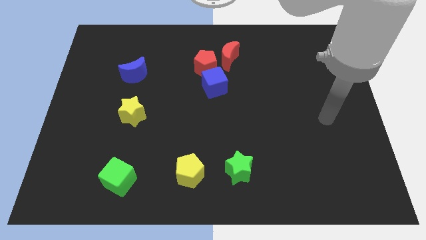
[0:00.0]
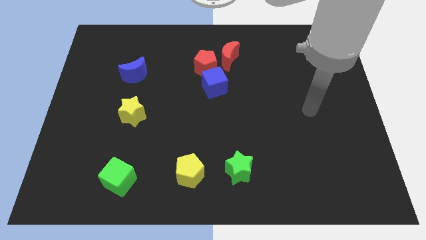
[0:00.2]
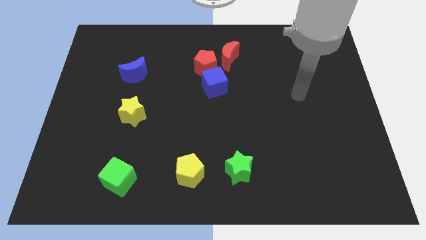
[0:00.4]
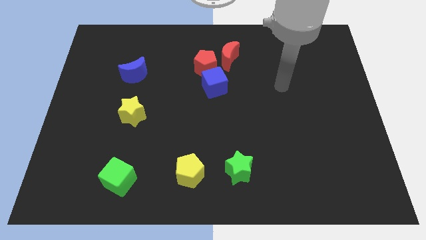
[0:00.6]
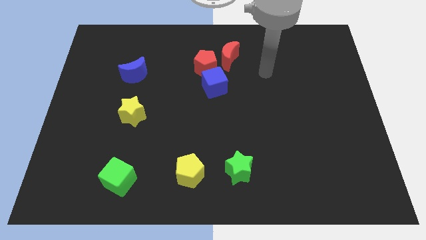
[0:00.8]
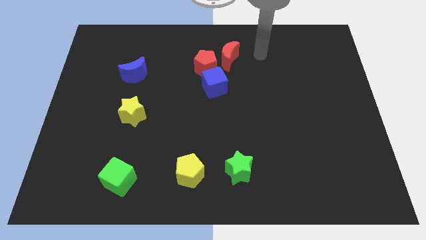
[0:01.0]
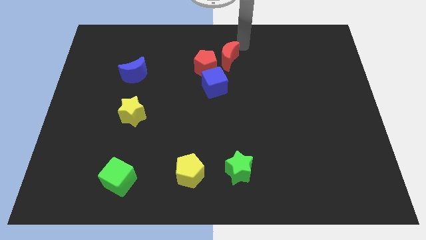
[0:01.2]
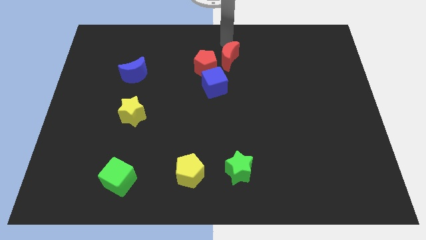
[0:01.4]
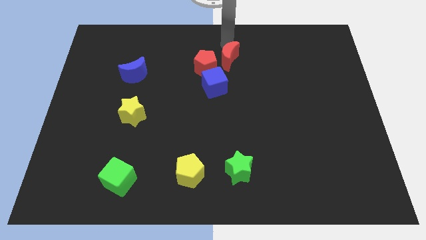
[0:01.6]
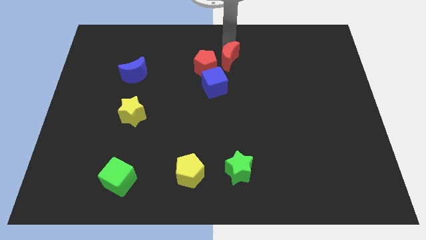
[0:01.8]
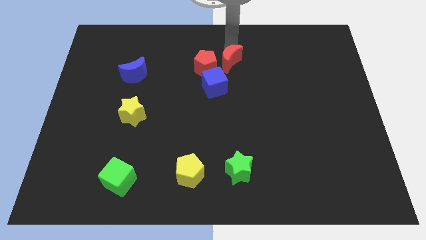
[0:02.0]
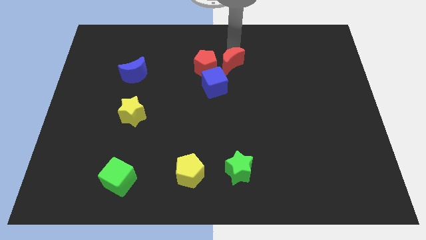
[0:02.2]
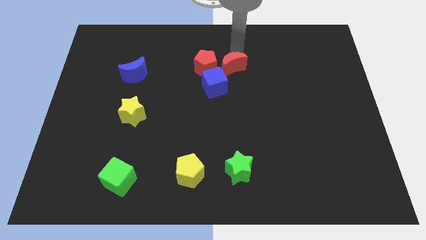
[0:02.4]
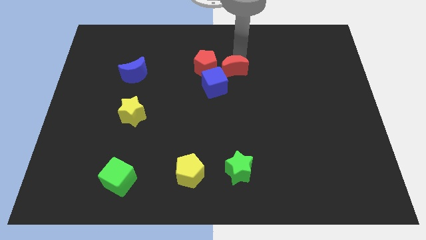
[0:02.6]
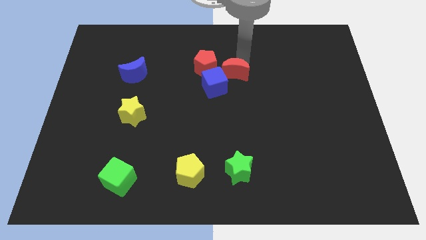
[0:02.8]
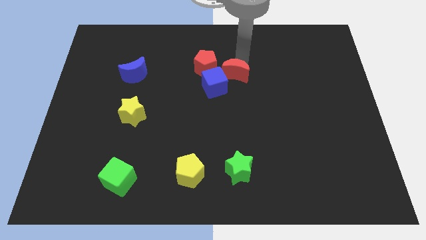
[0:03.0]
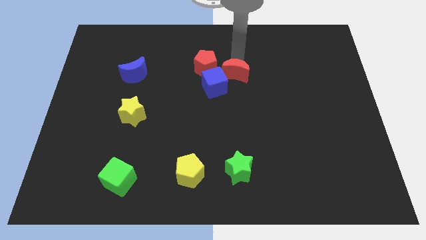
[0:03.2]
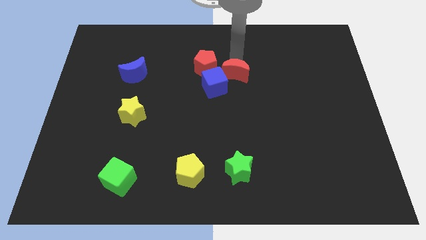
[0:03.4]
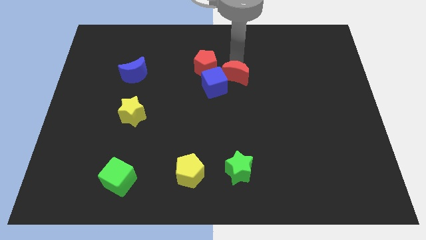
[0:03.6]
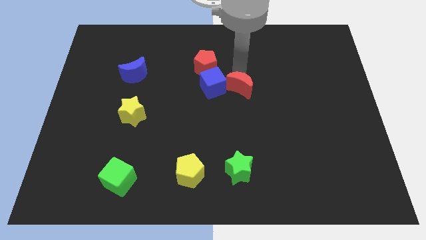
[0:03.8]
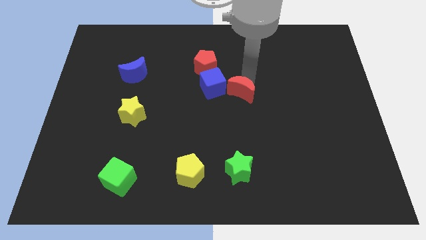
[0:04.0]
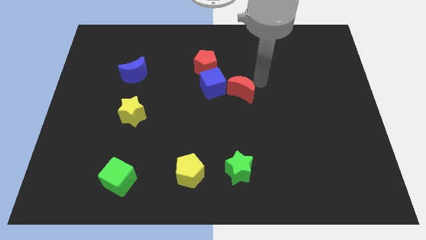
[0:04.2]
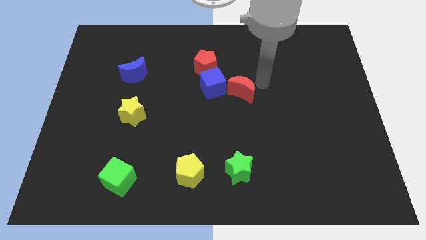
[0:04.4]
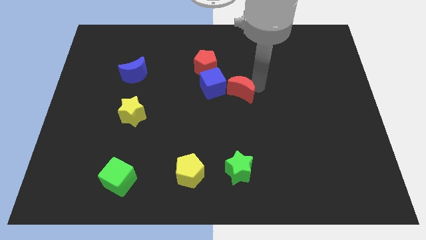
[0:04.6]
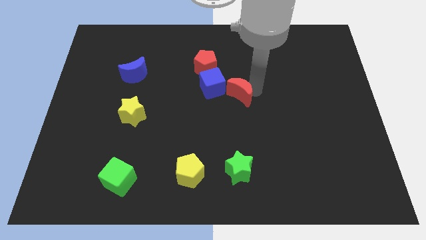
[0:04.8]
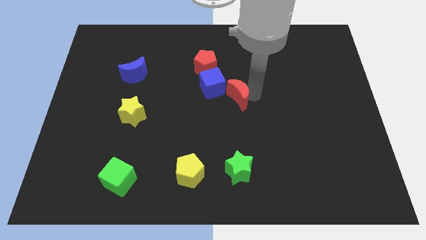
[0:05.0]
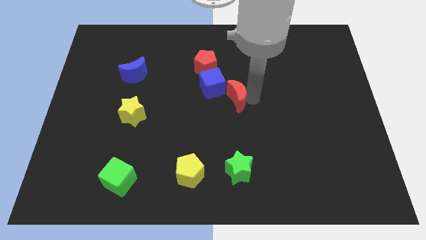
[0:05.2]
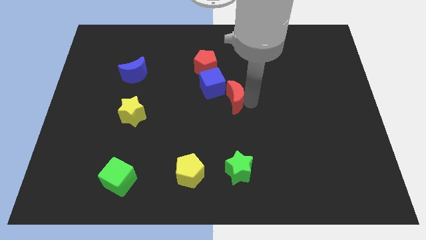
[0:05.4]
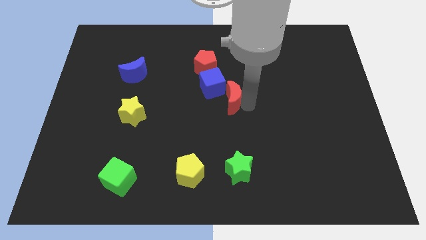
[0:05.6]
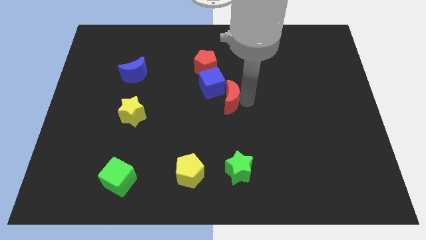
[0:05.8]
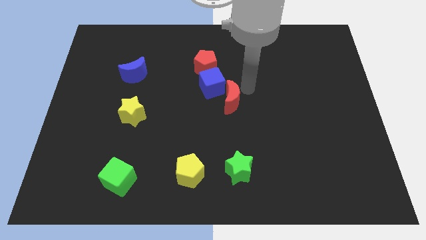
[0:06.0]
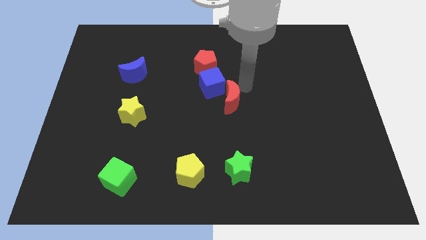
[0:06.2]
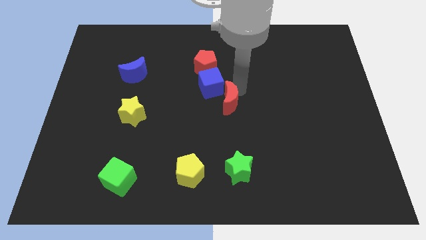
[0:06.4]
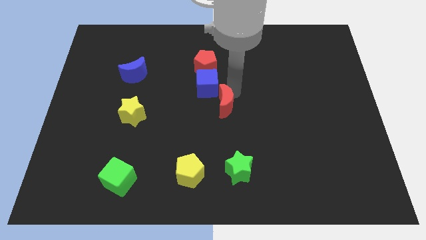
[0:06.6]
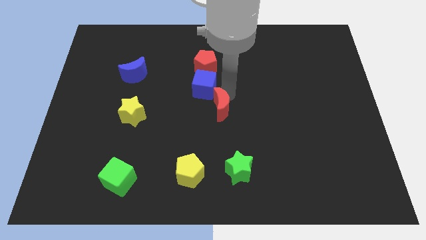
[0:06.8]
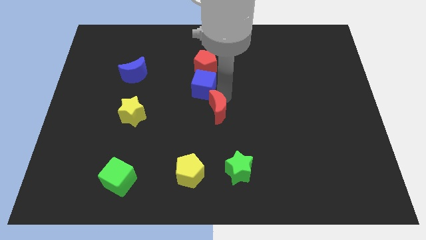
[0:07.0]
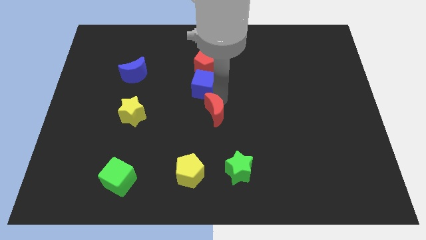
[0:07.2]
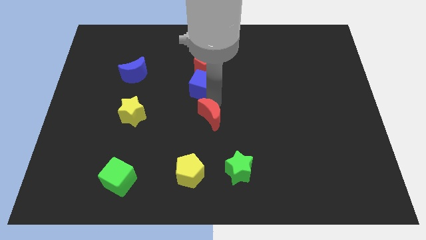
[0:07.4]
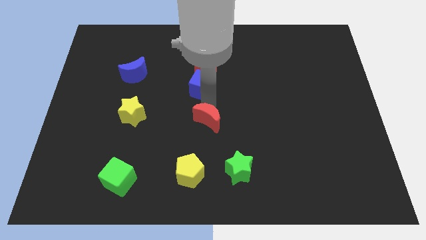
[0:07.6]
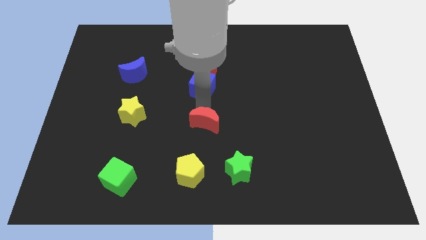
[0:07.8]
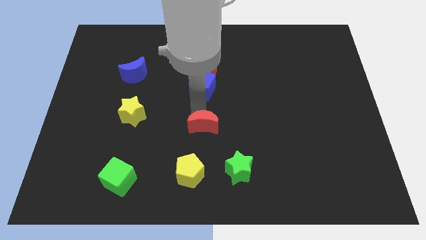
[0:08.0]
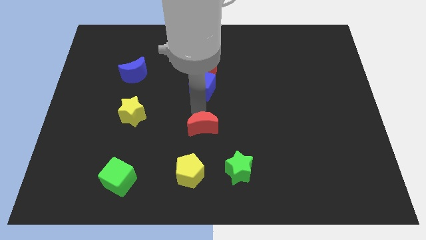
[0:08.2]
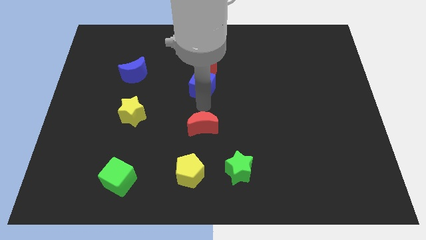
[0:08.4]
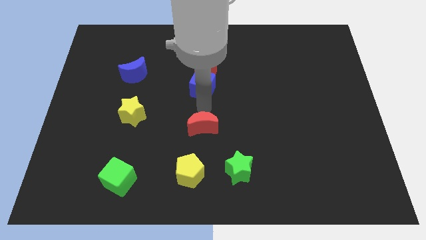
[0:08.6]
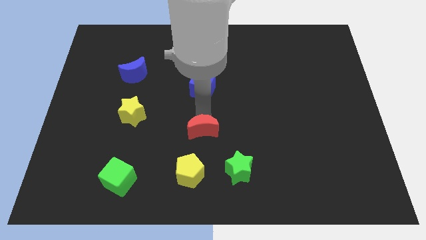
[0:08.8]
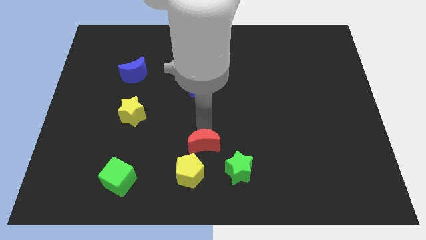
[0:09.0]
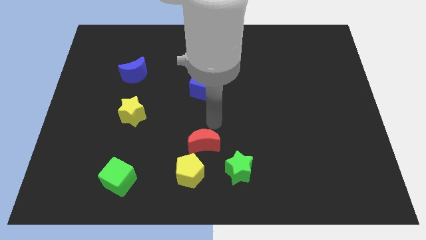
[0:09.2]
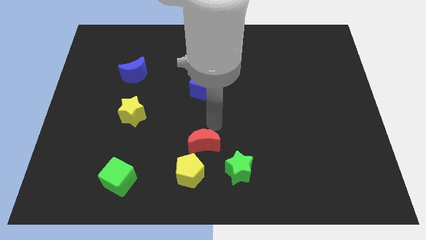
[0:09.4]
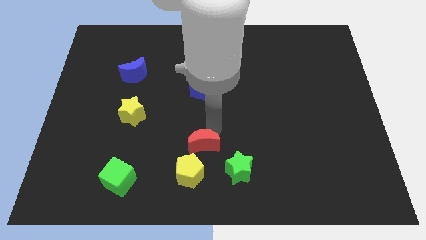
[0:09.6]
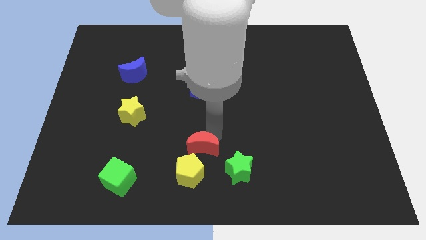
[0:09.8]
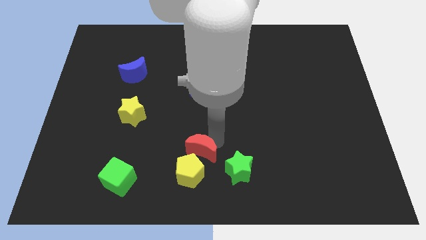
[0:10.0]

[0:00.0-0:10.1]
move the red moon next to the yellow pentagon

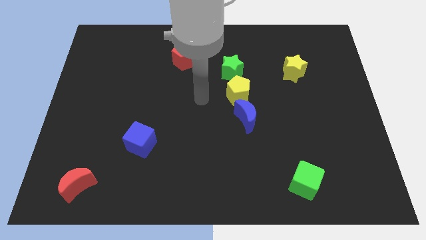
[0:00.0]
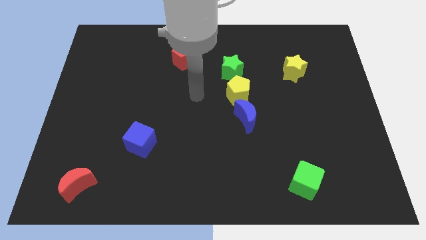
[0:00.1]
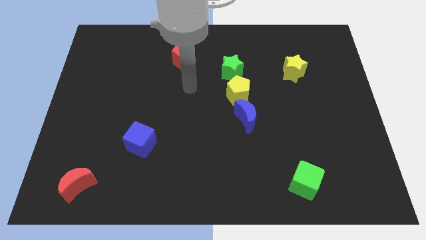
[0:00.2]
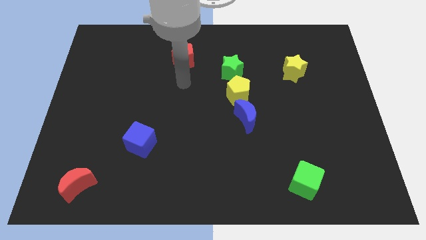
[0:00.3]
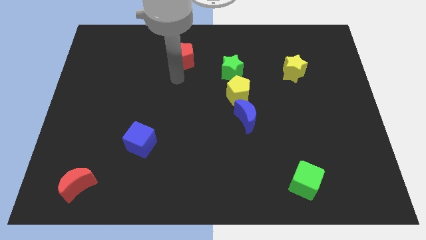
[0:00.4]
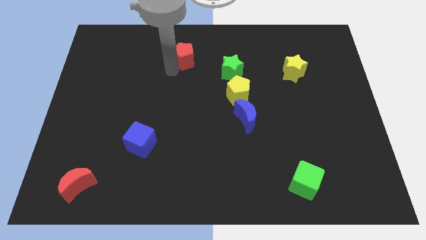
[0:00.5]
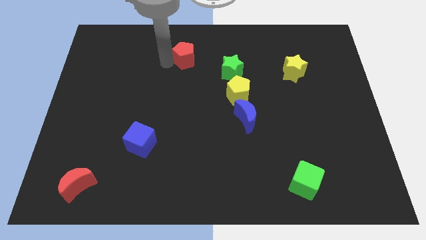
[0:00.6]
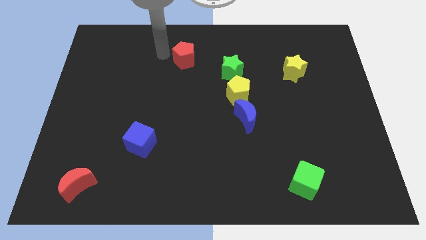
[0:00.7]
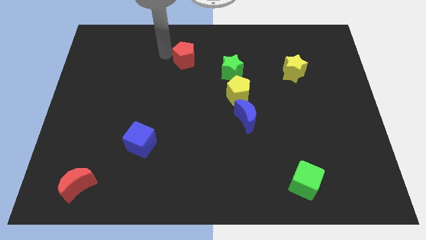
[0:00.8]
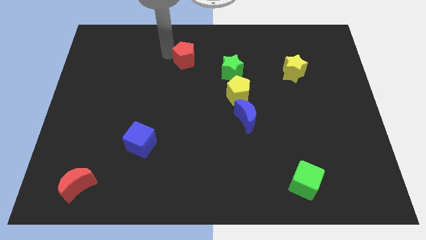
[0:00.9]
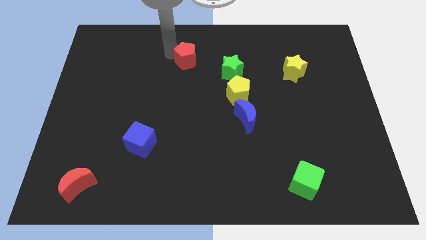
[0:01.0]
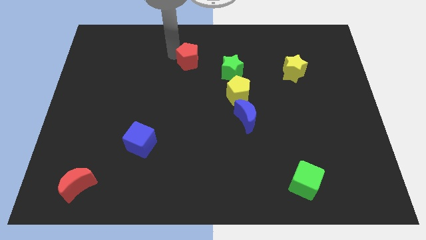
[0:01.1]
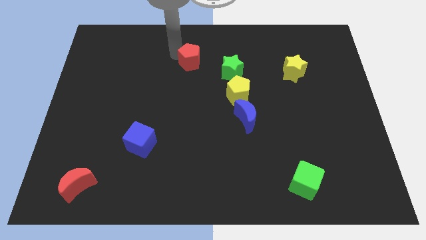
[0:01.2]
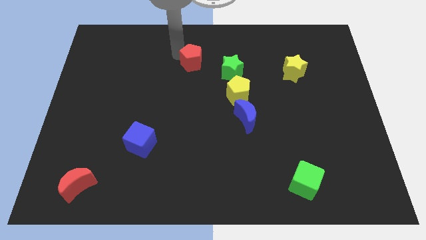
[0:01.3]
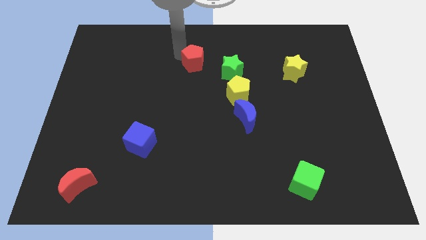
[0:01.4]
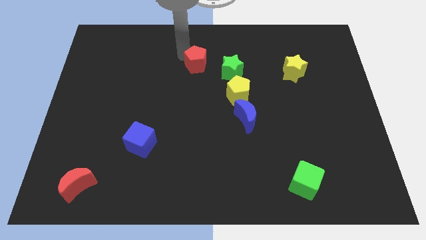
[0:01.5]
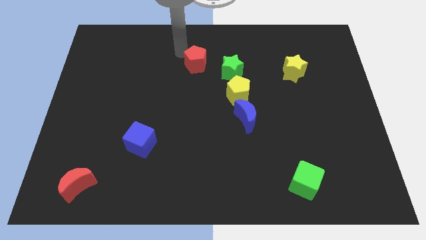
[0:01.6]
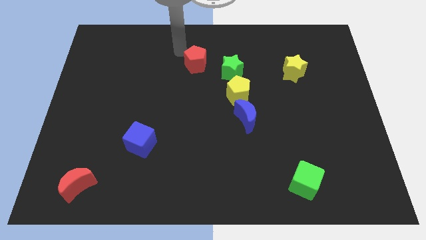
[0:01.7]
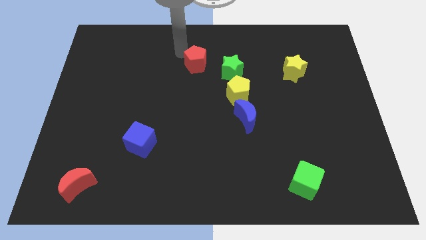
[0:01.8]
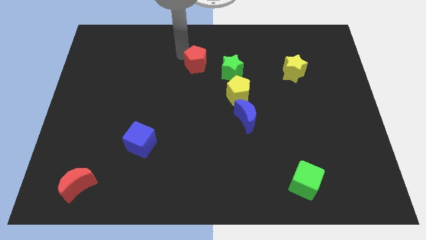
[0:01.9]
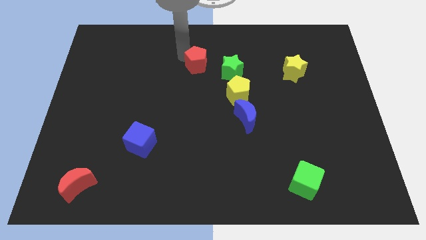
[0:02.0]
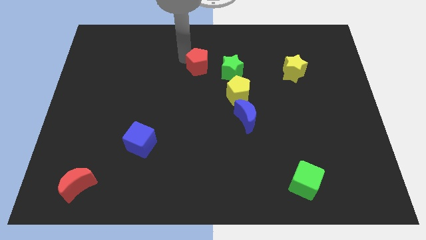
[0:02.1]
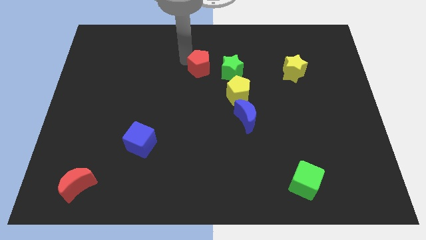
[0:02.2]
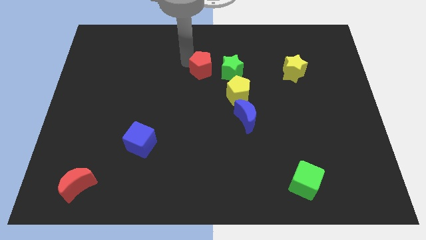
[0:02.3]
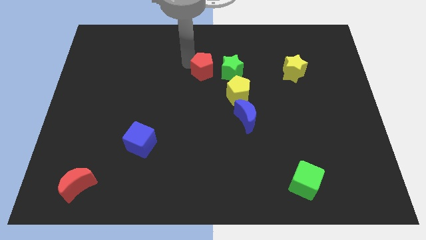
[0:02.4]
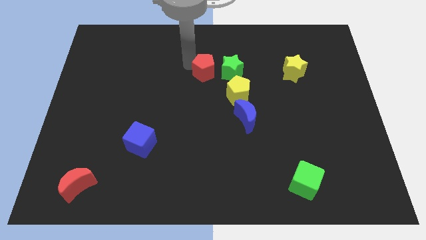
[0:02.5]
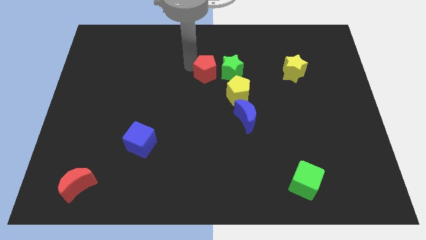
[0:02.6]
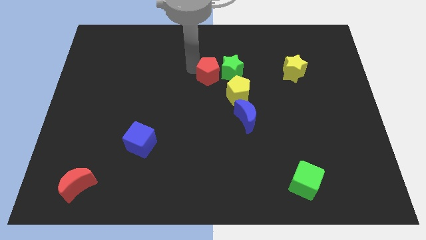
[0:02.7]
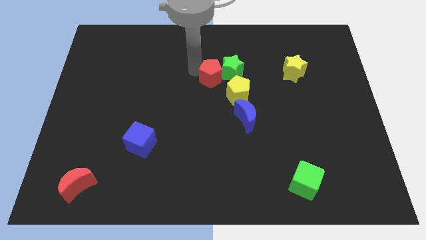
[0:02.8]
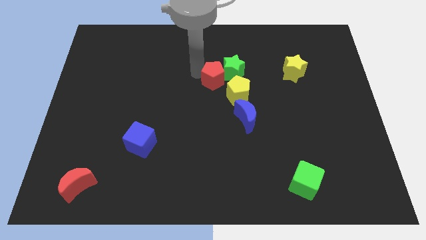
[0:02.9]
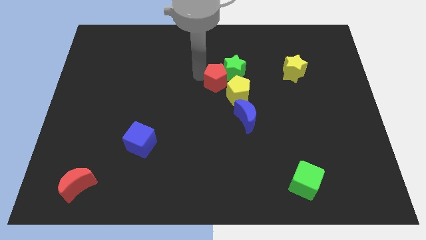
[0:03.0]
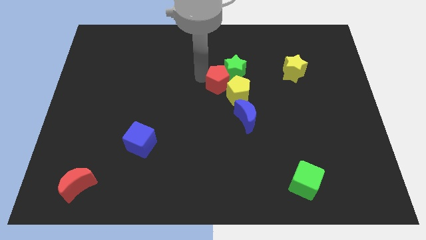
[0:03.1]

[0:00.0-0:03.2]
put the red pentagon to the yellow pentagon
